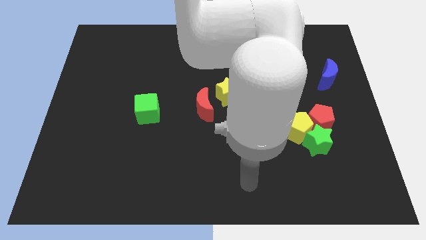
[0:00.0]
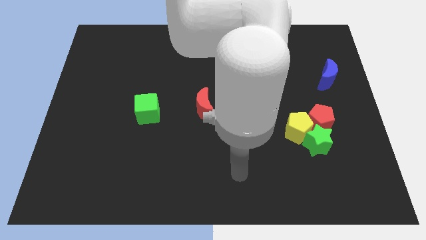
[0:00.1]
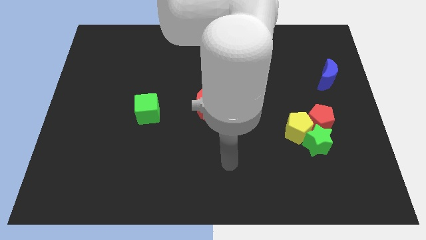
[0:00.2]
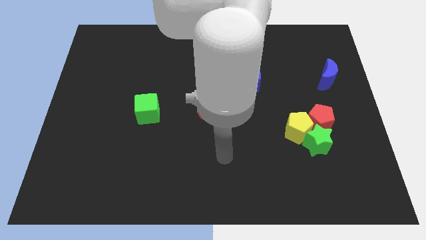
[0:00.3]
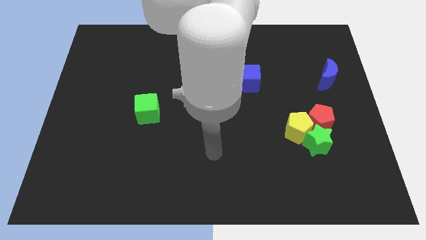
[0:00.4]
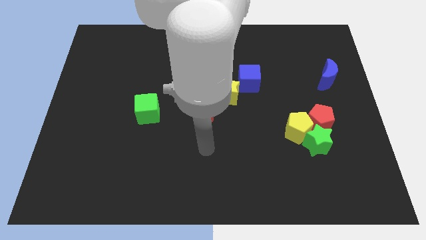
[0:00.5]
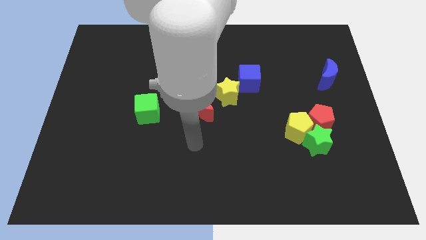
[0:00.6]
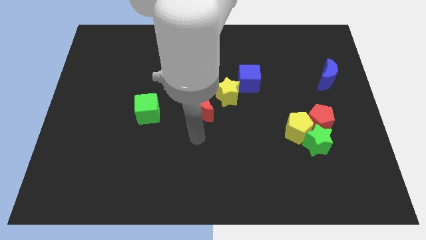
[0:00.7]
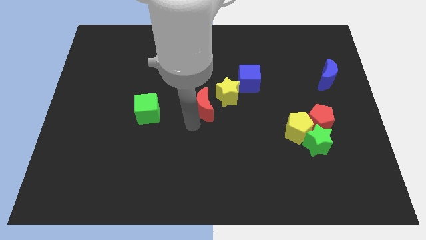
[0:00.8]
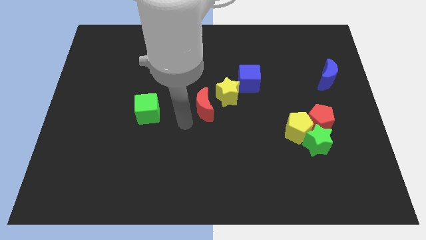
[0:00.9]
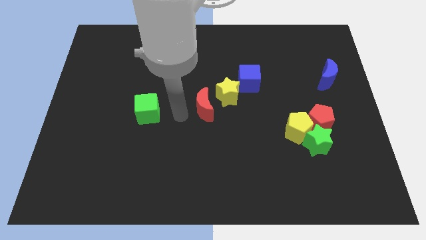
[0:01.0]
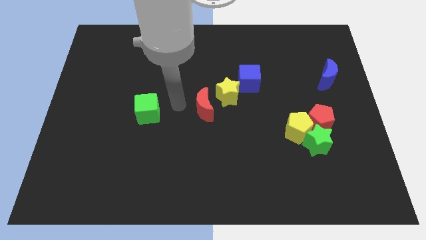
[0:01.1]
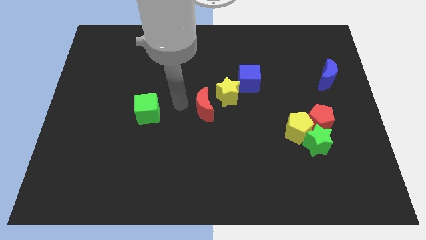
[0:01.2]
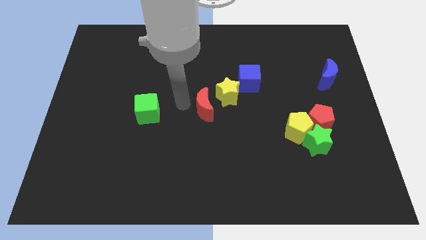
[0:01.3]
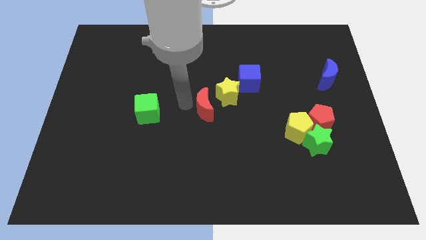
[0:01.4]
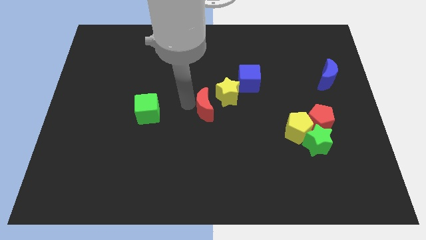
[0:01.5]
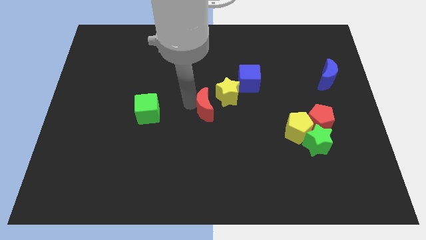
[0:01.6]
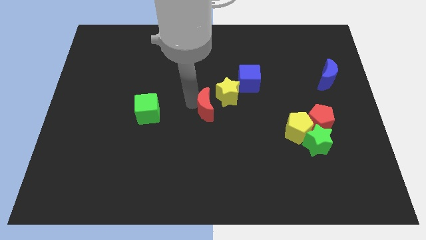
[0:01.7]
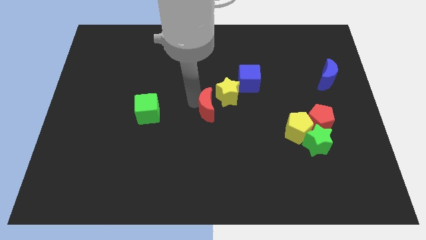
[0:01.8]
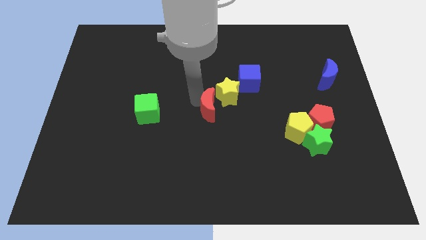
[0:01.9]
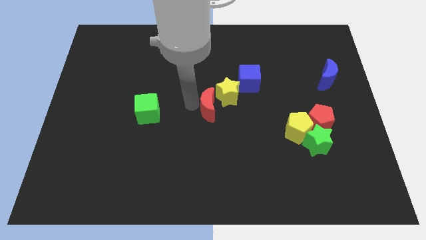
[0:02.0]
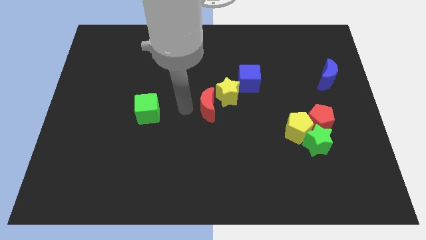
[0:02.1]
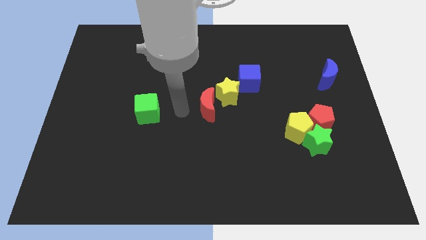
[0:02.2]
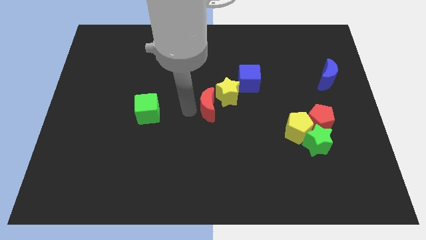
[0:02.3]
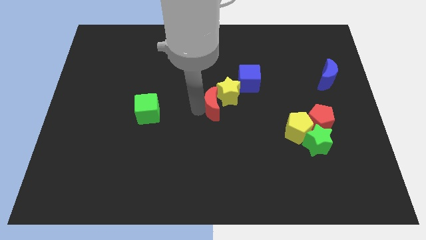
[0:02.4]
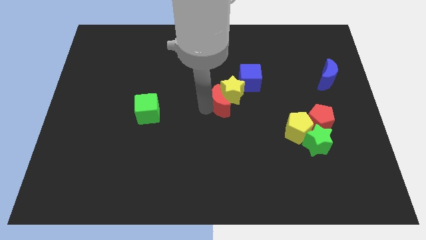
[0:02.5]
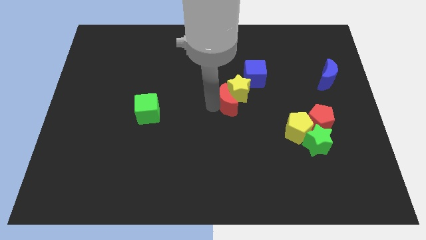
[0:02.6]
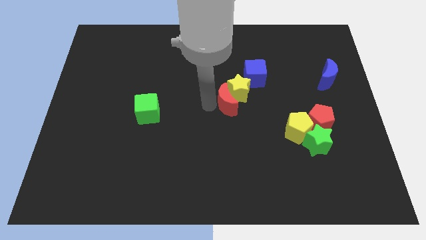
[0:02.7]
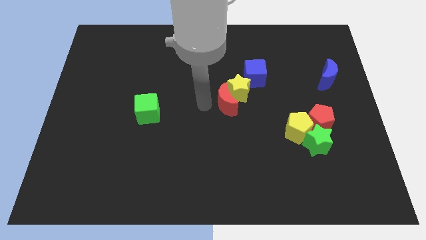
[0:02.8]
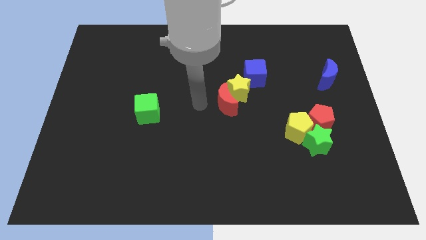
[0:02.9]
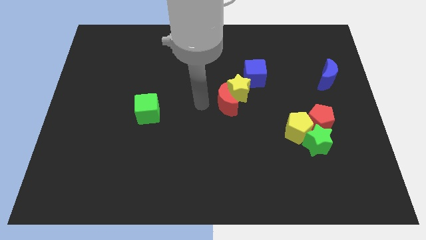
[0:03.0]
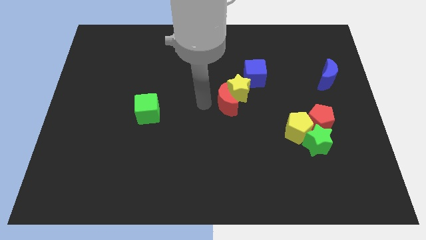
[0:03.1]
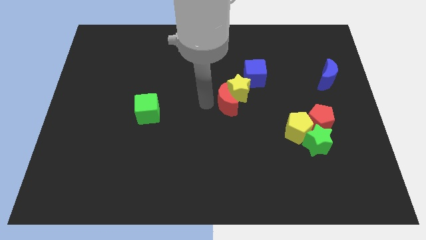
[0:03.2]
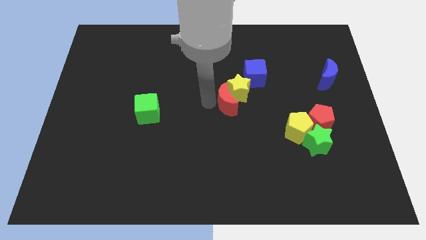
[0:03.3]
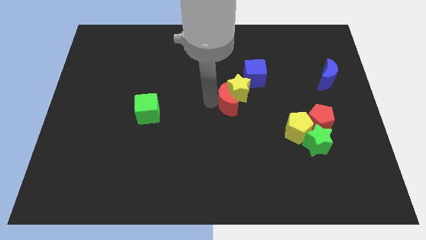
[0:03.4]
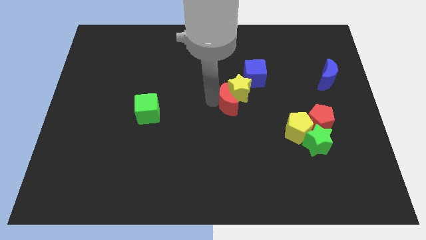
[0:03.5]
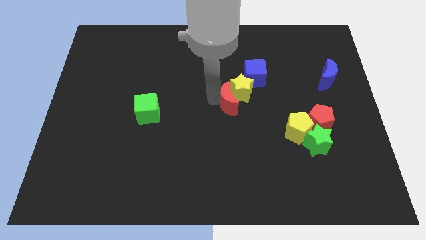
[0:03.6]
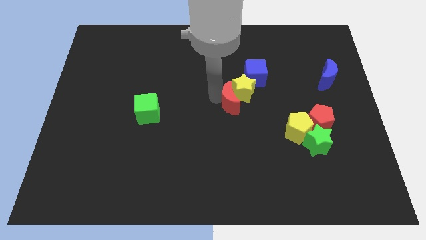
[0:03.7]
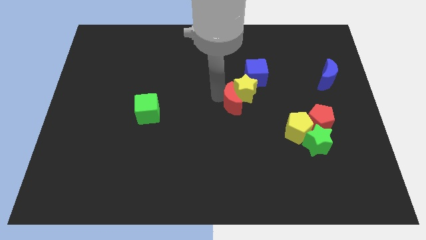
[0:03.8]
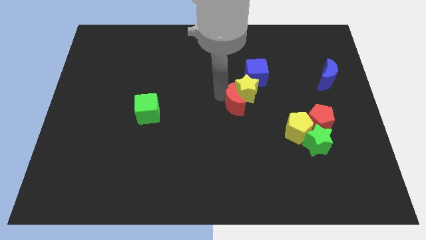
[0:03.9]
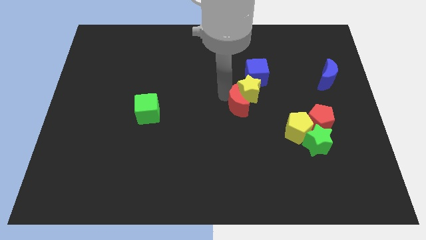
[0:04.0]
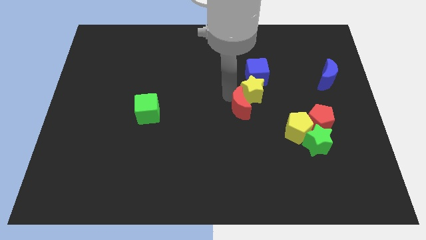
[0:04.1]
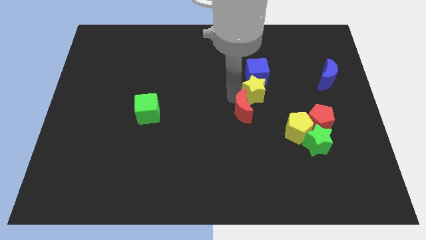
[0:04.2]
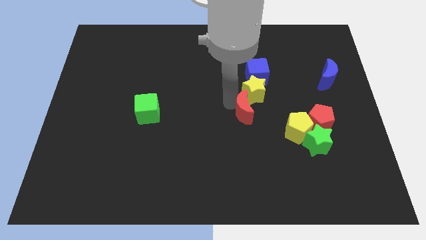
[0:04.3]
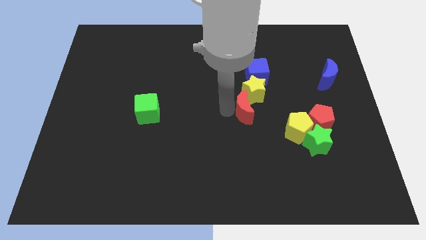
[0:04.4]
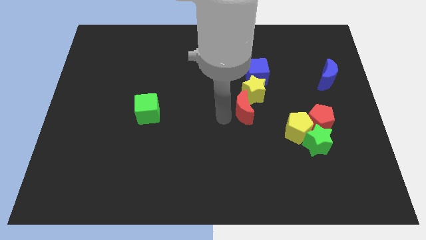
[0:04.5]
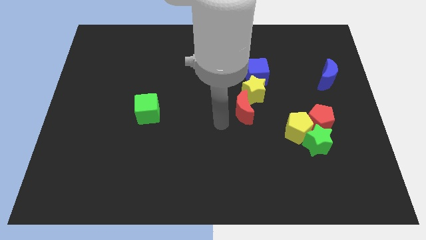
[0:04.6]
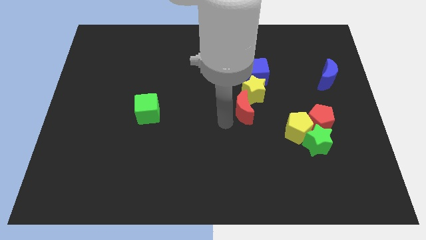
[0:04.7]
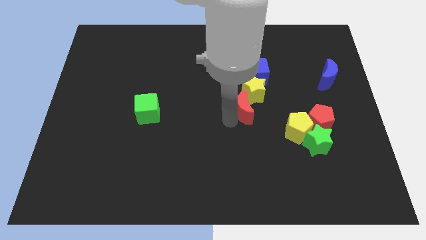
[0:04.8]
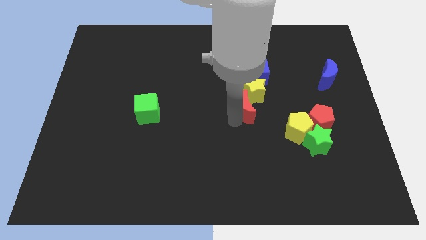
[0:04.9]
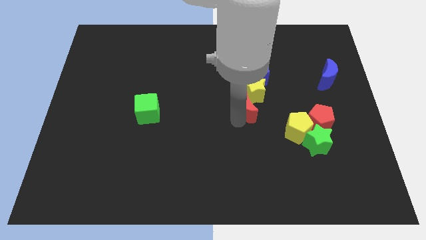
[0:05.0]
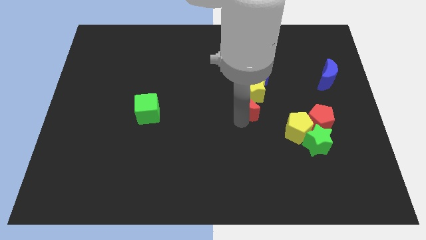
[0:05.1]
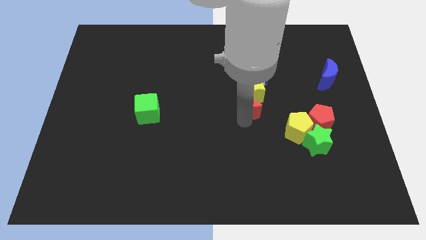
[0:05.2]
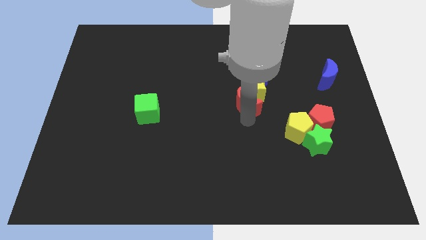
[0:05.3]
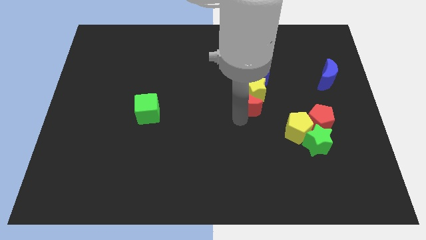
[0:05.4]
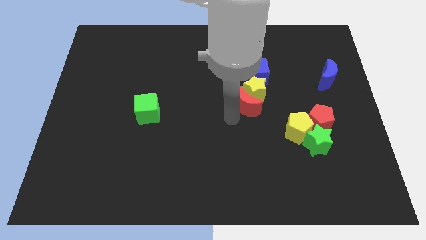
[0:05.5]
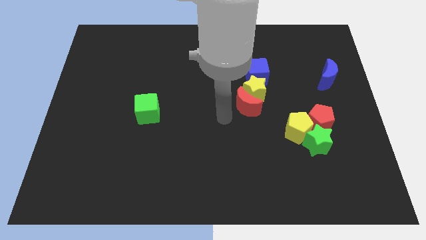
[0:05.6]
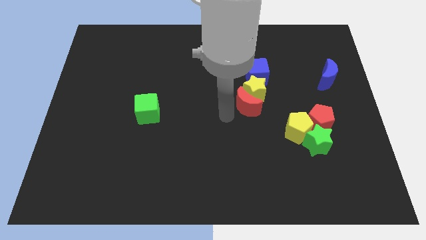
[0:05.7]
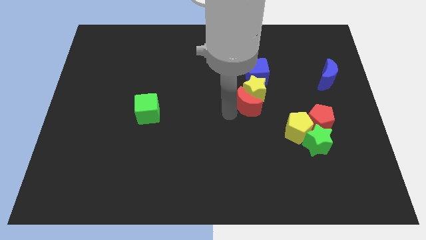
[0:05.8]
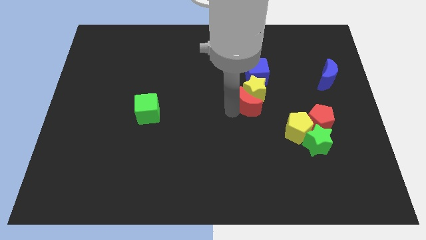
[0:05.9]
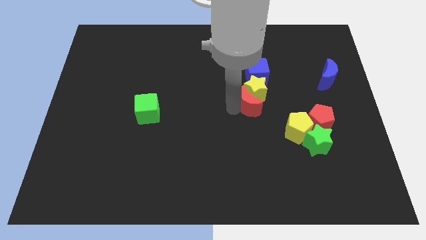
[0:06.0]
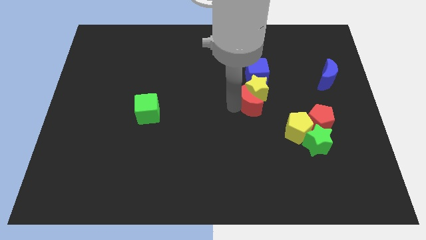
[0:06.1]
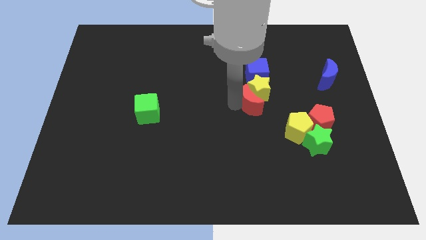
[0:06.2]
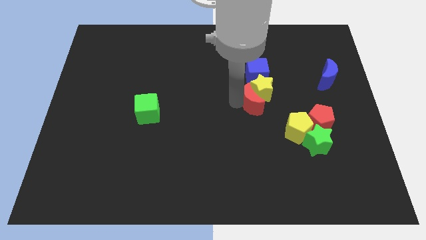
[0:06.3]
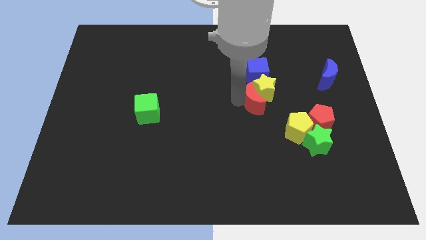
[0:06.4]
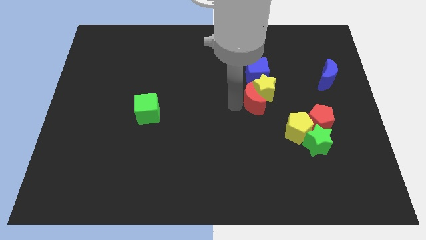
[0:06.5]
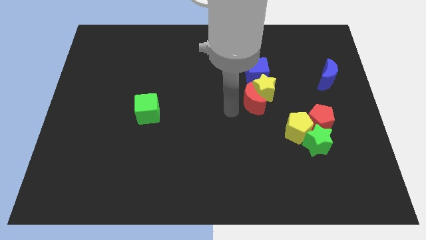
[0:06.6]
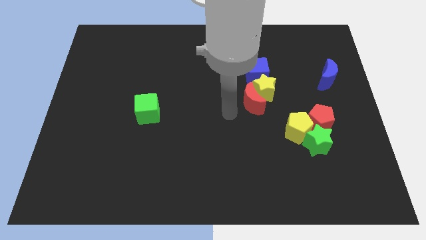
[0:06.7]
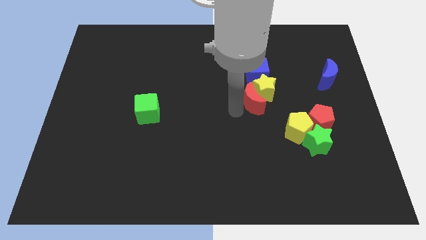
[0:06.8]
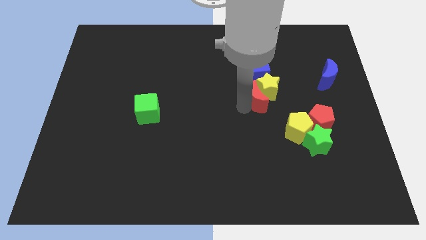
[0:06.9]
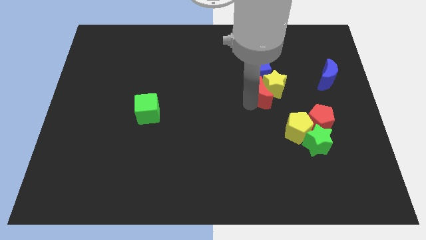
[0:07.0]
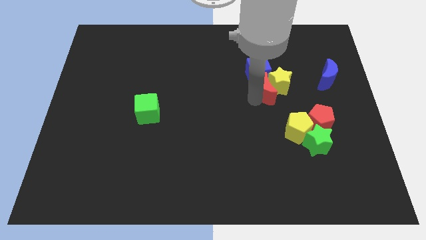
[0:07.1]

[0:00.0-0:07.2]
put the red moon to the bottom right side of the blue cube
